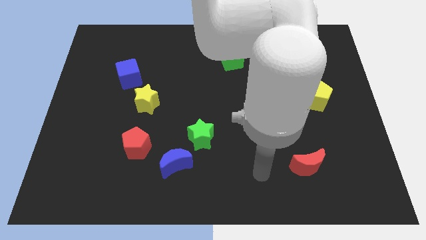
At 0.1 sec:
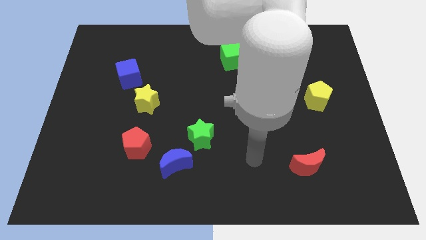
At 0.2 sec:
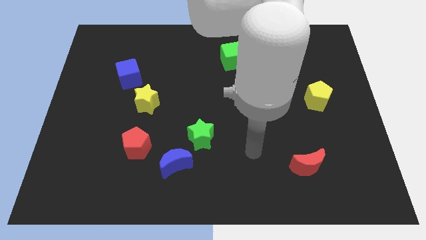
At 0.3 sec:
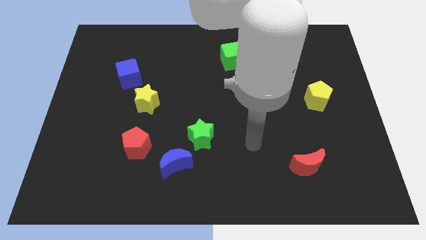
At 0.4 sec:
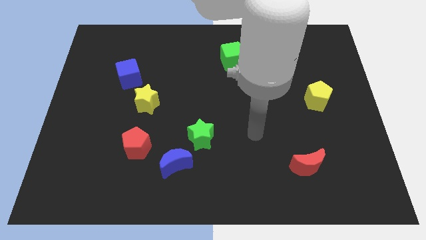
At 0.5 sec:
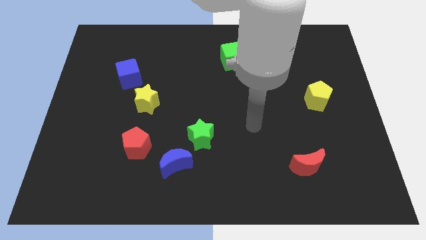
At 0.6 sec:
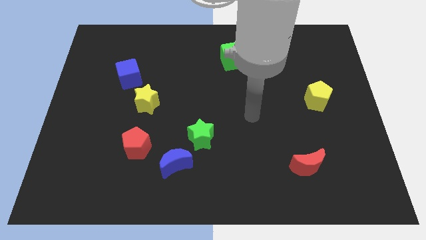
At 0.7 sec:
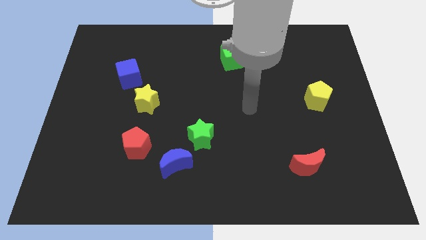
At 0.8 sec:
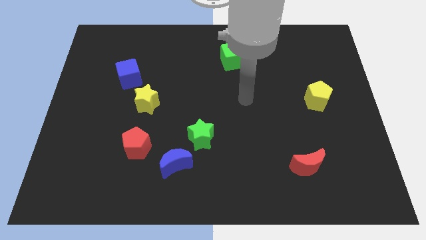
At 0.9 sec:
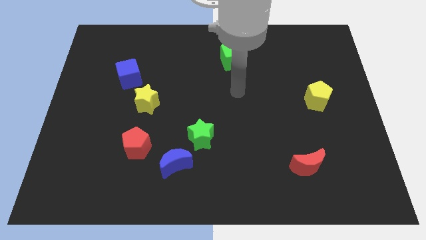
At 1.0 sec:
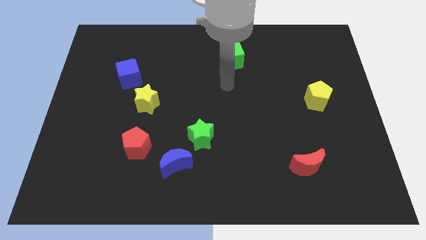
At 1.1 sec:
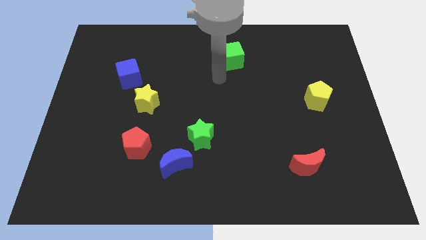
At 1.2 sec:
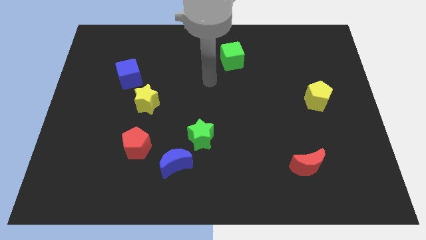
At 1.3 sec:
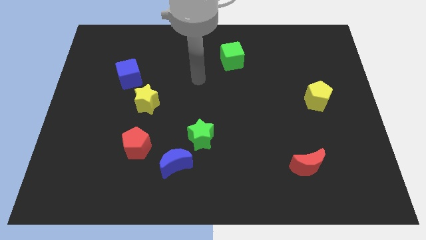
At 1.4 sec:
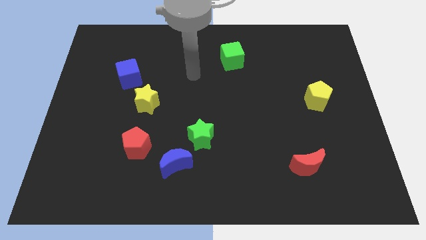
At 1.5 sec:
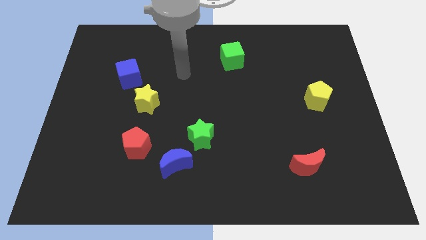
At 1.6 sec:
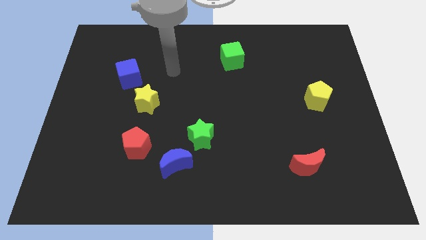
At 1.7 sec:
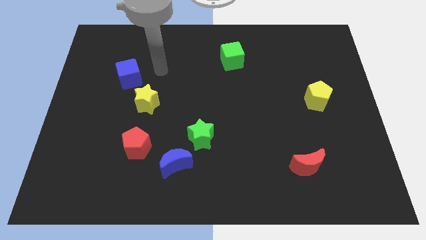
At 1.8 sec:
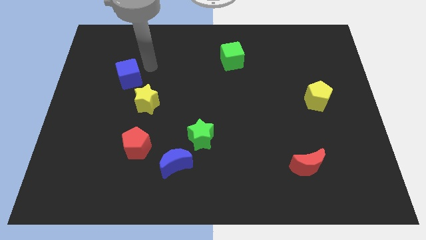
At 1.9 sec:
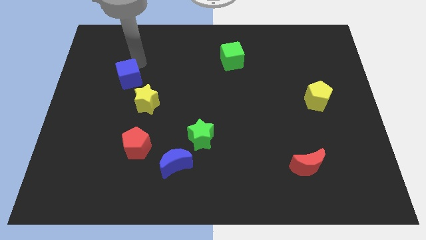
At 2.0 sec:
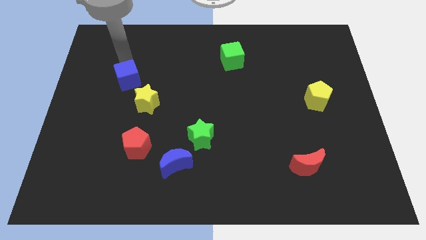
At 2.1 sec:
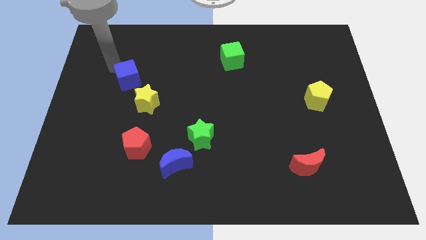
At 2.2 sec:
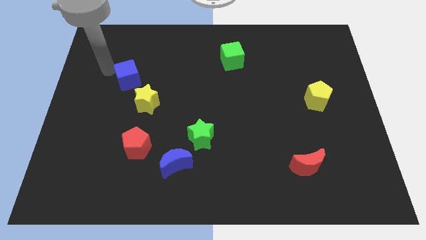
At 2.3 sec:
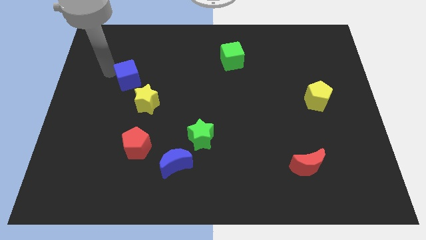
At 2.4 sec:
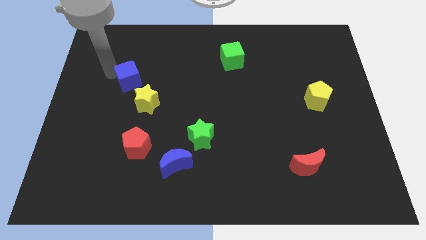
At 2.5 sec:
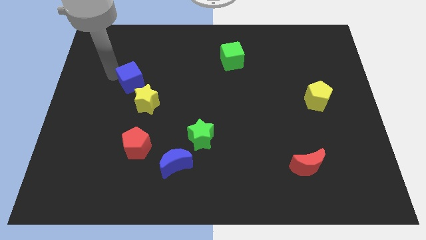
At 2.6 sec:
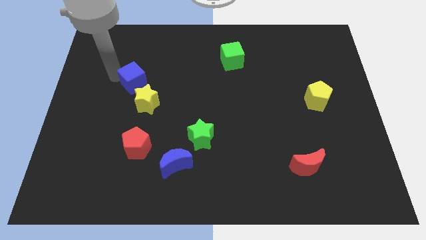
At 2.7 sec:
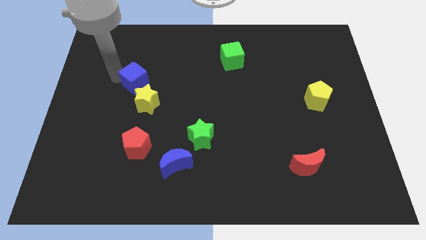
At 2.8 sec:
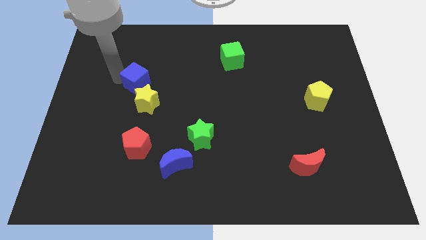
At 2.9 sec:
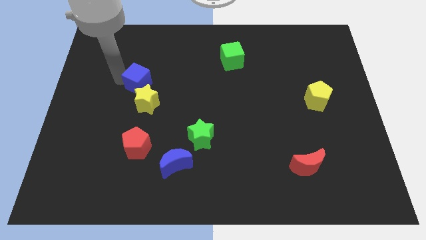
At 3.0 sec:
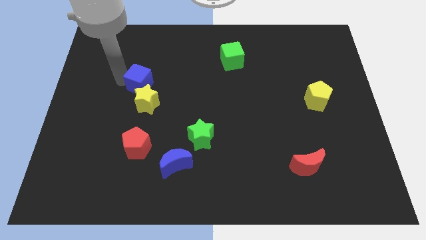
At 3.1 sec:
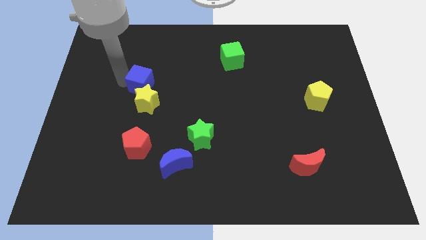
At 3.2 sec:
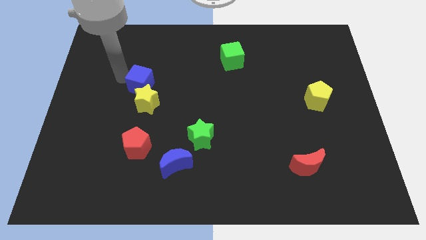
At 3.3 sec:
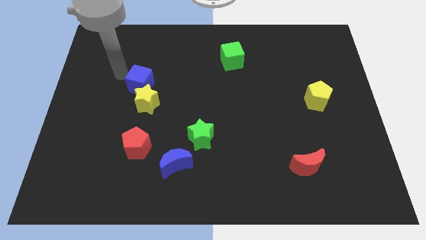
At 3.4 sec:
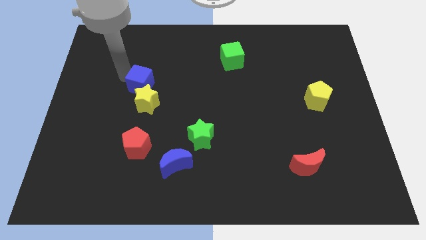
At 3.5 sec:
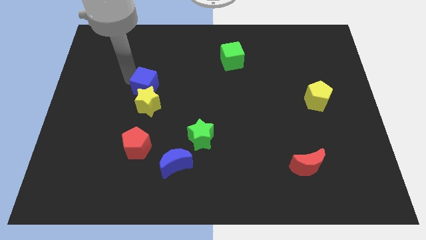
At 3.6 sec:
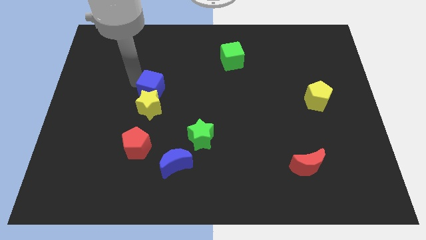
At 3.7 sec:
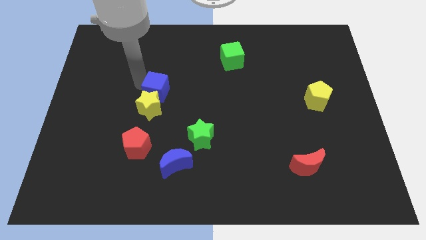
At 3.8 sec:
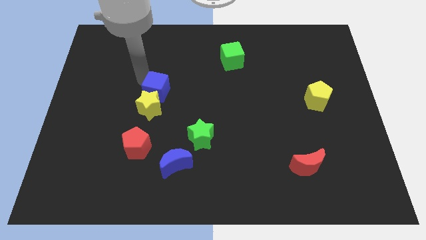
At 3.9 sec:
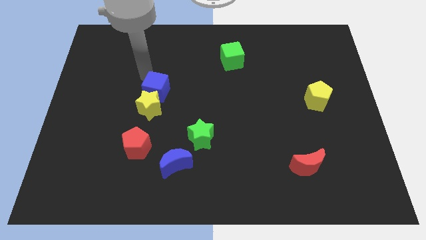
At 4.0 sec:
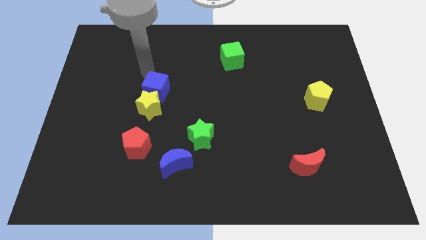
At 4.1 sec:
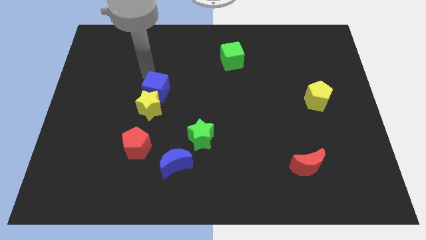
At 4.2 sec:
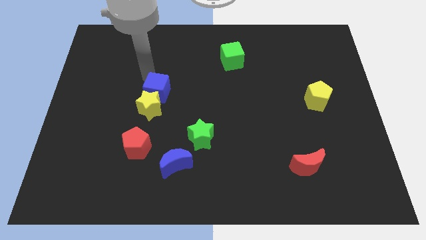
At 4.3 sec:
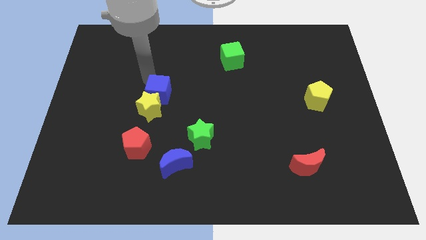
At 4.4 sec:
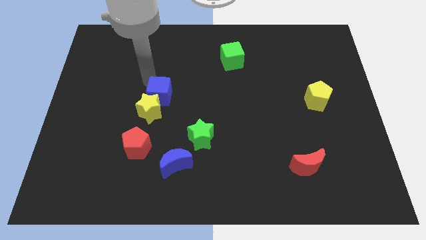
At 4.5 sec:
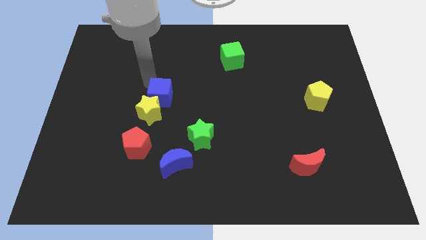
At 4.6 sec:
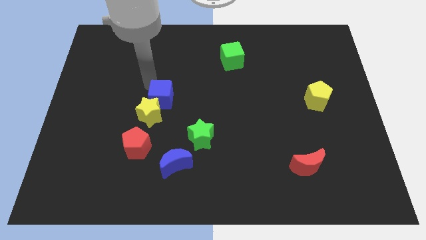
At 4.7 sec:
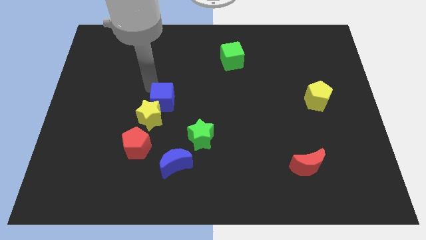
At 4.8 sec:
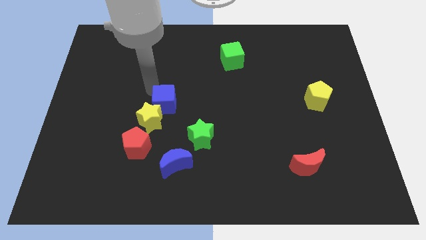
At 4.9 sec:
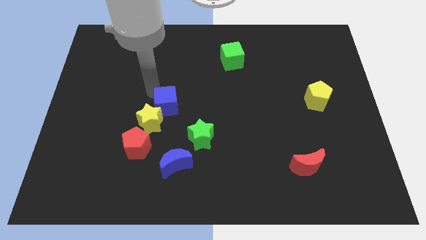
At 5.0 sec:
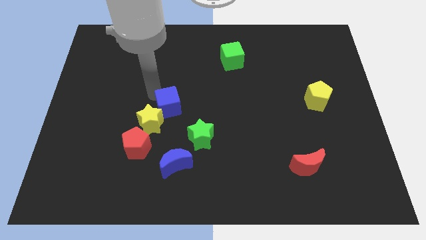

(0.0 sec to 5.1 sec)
move the blue cube above the blue moon
